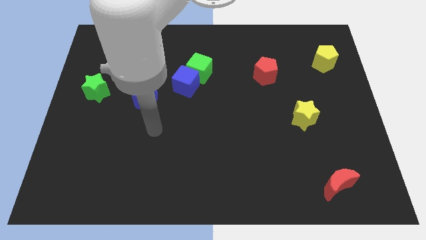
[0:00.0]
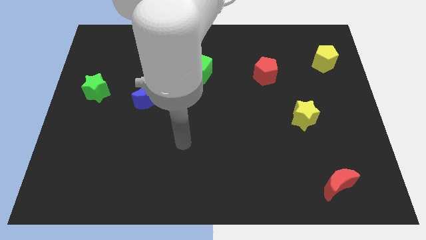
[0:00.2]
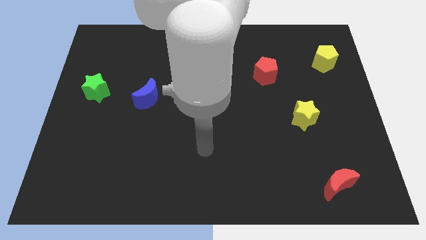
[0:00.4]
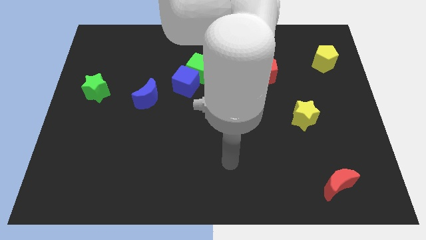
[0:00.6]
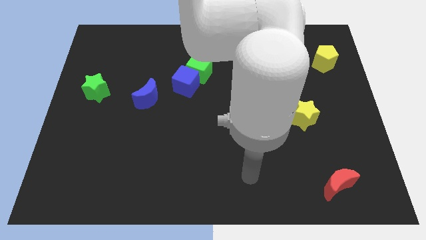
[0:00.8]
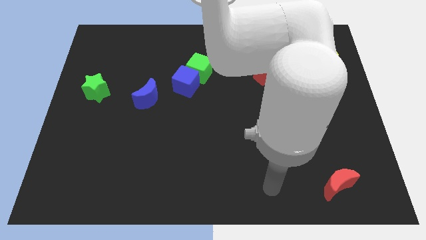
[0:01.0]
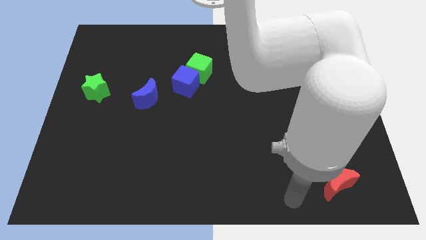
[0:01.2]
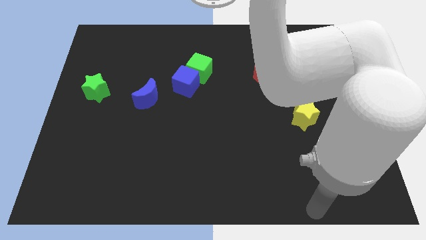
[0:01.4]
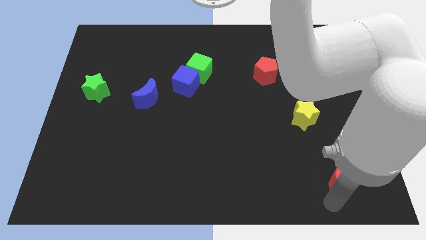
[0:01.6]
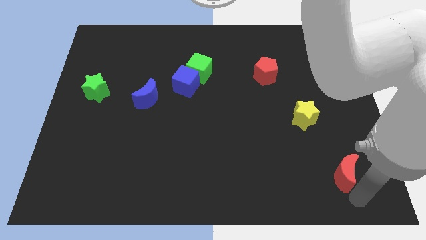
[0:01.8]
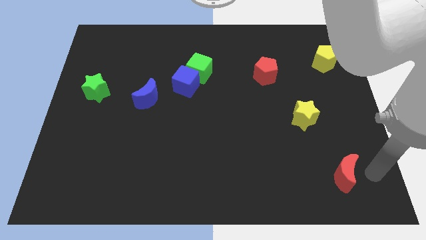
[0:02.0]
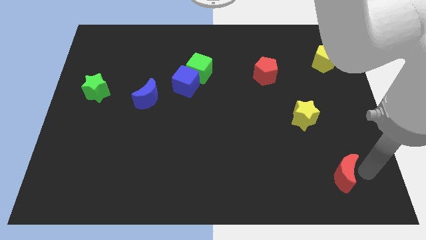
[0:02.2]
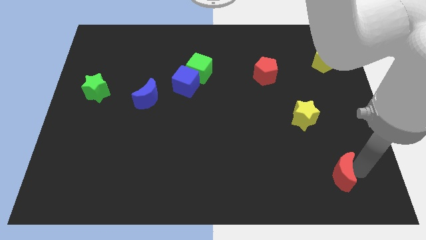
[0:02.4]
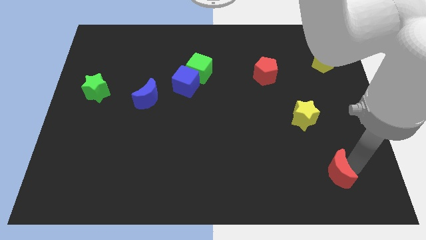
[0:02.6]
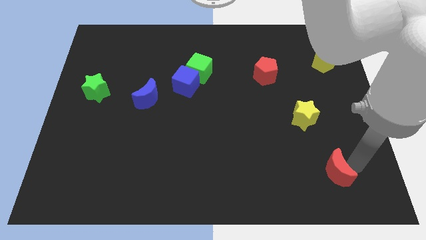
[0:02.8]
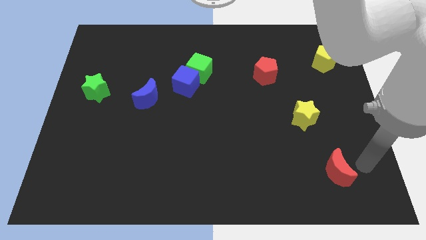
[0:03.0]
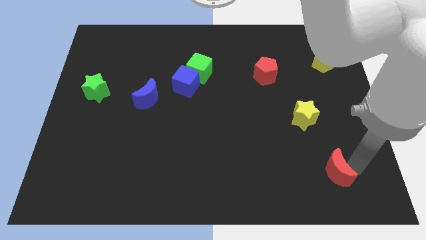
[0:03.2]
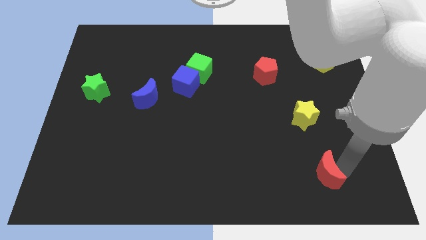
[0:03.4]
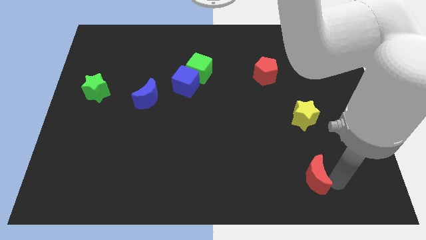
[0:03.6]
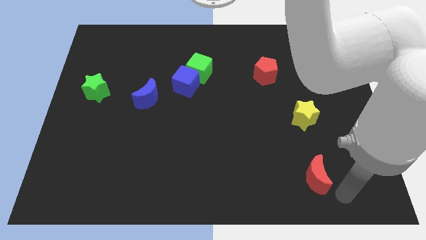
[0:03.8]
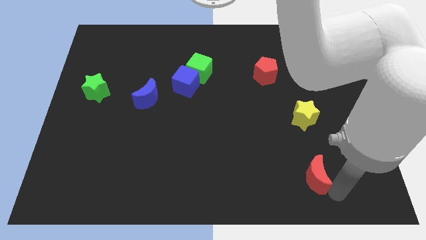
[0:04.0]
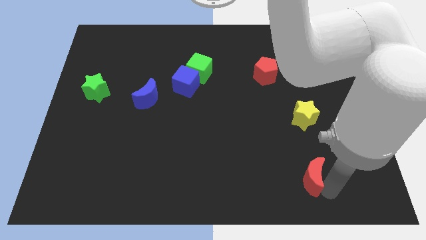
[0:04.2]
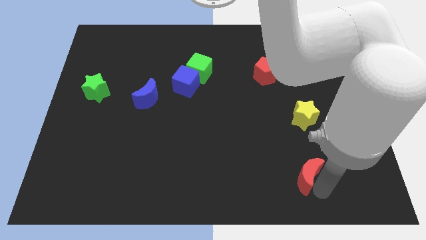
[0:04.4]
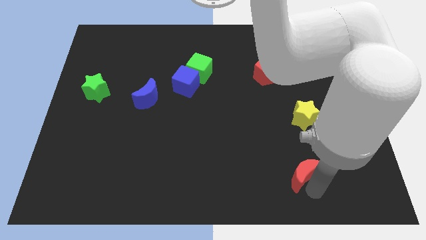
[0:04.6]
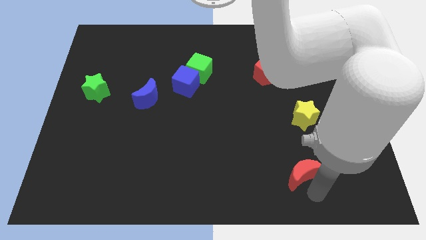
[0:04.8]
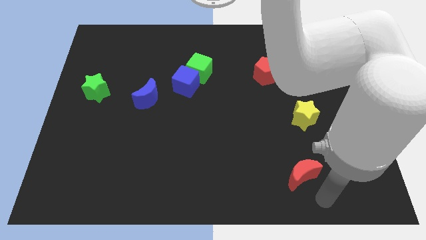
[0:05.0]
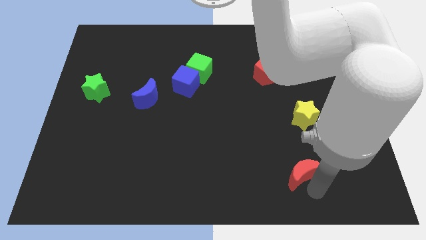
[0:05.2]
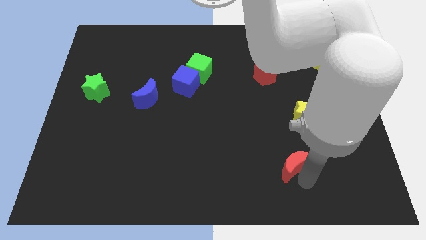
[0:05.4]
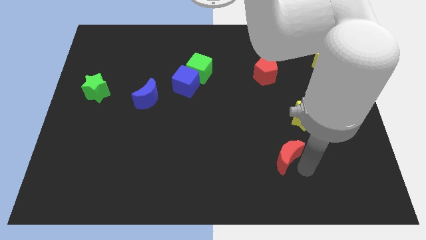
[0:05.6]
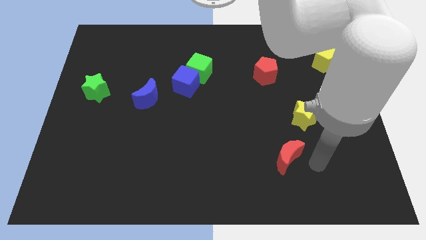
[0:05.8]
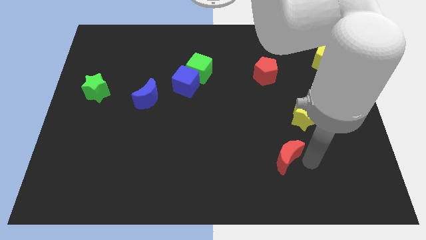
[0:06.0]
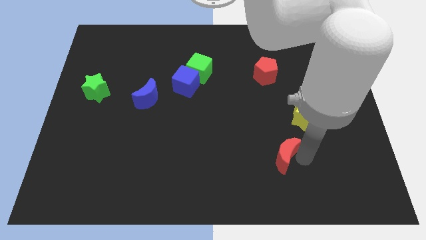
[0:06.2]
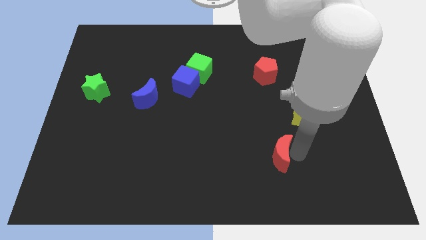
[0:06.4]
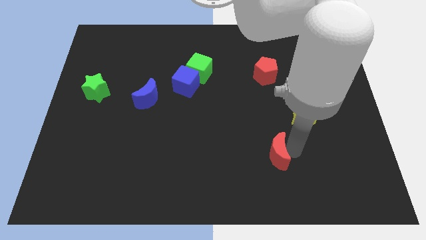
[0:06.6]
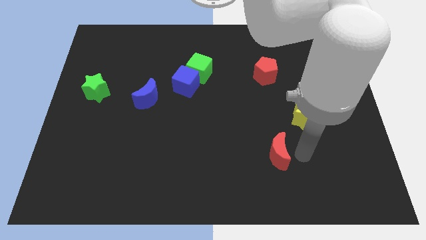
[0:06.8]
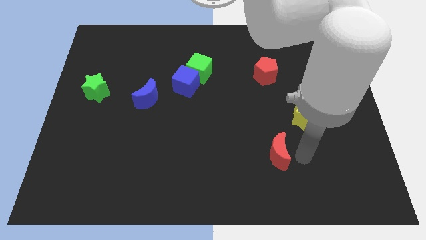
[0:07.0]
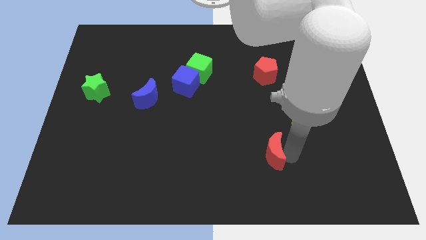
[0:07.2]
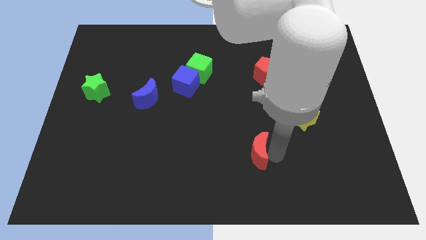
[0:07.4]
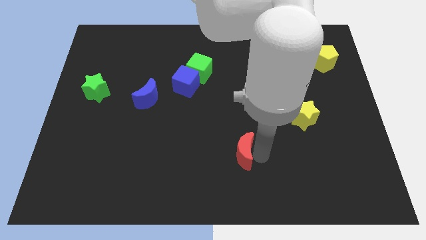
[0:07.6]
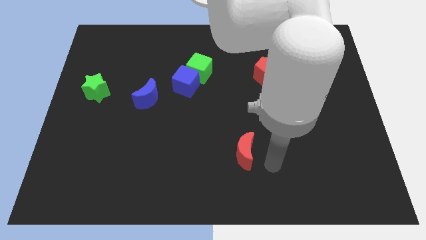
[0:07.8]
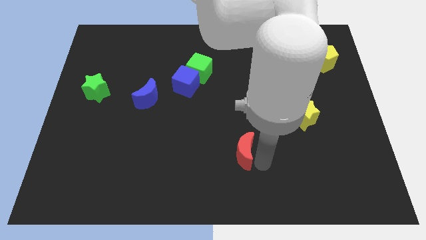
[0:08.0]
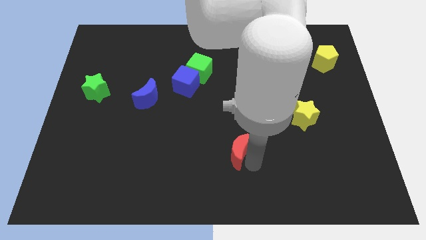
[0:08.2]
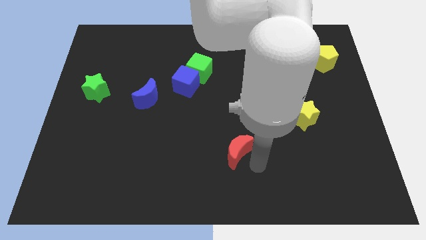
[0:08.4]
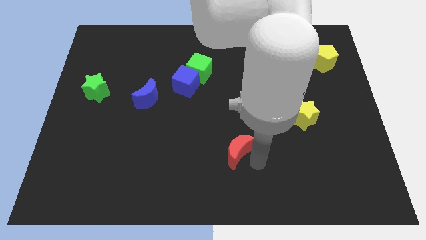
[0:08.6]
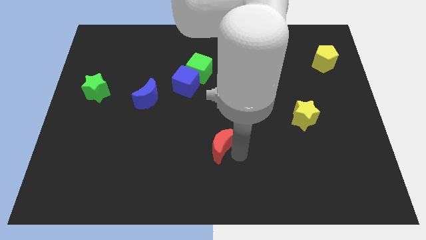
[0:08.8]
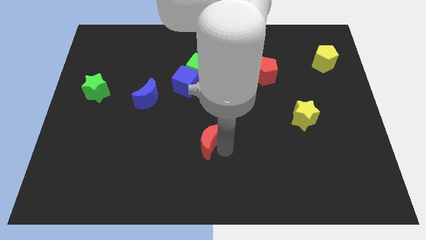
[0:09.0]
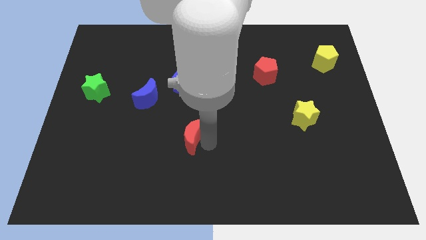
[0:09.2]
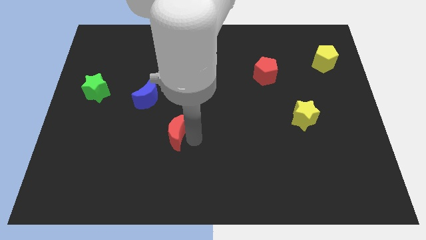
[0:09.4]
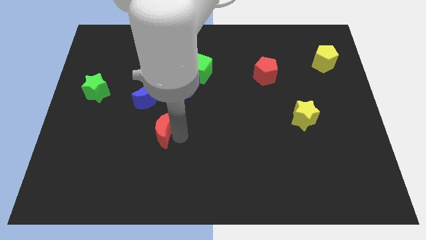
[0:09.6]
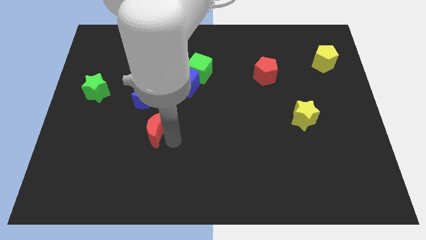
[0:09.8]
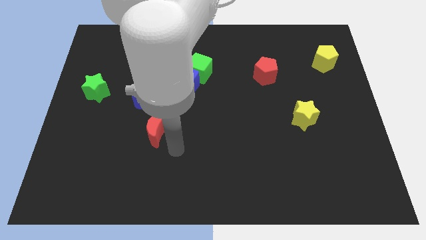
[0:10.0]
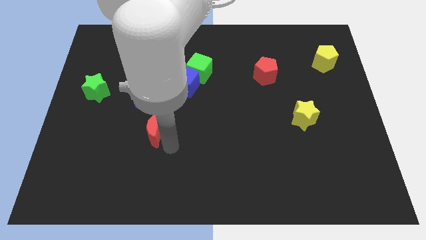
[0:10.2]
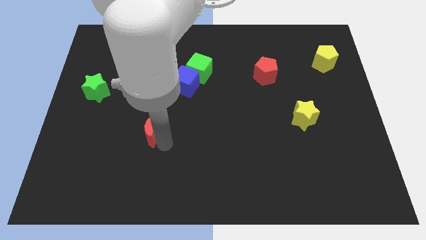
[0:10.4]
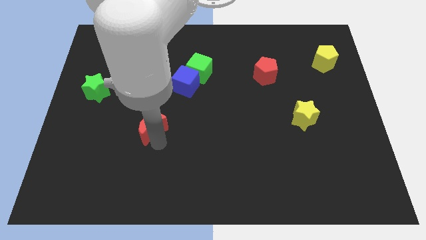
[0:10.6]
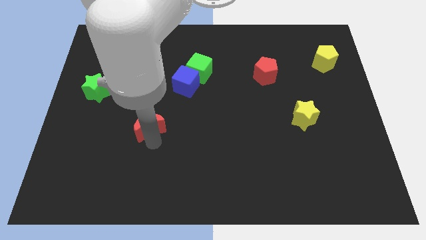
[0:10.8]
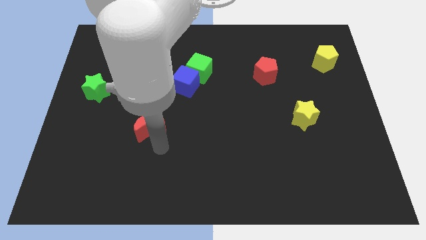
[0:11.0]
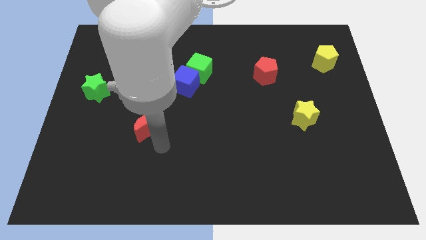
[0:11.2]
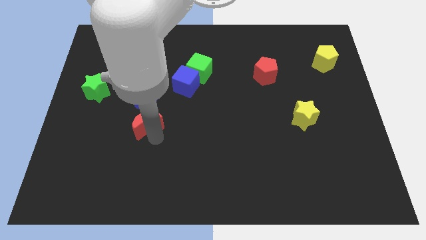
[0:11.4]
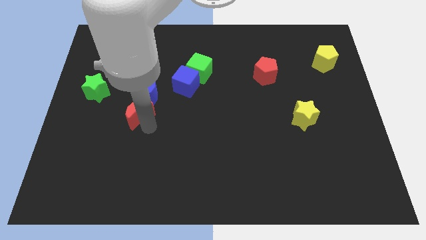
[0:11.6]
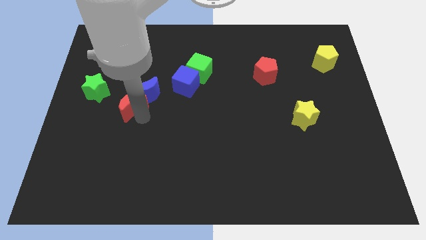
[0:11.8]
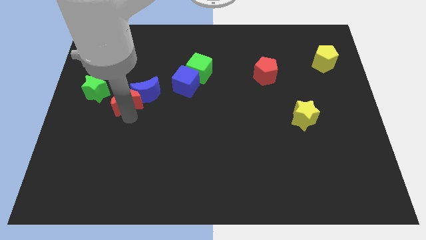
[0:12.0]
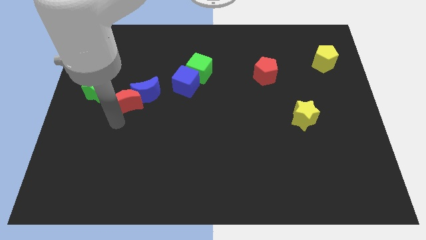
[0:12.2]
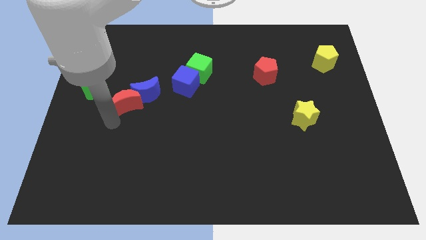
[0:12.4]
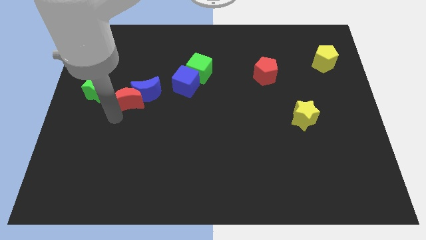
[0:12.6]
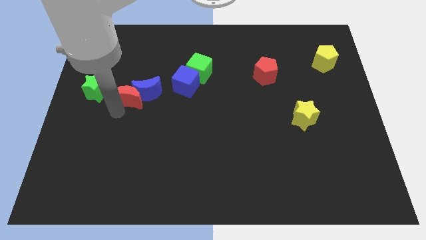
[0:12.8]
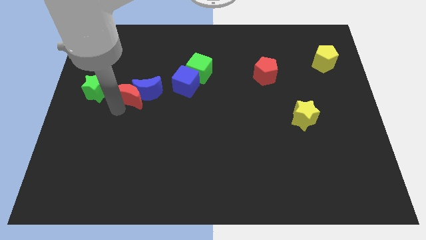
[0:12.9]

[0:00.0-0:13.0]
move the red moon just left of the blue cube
